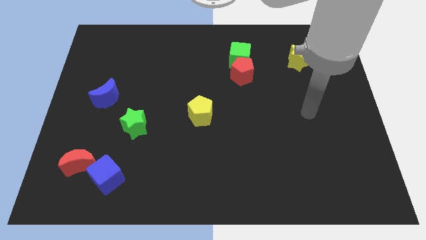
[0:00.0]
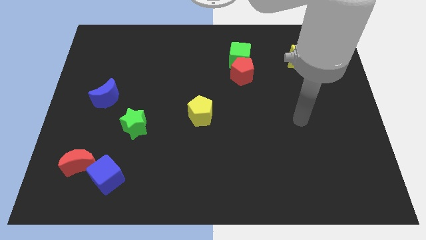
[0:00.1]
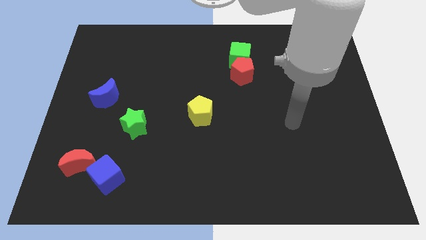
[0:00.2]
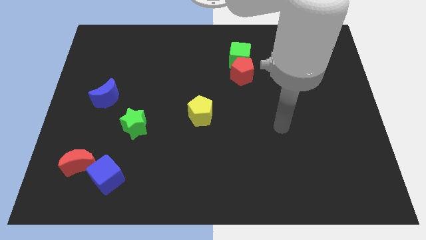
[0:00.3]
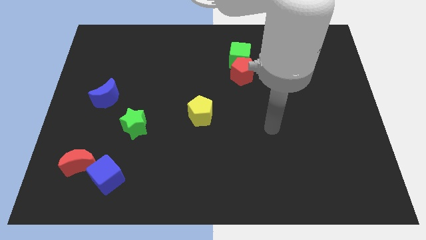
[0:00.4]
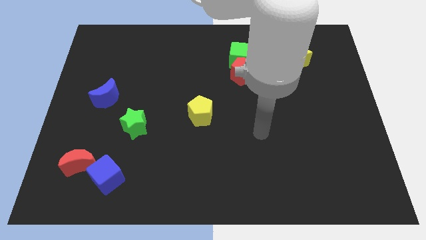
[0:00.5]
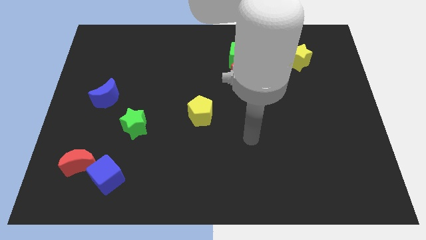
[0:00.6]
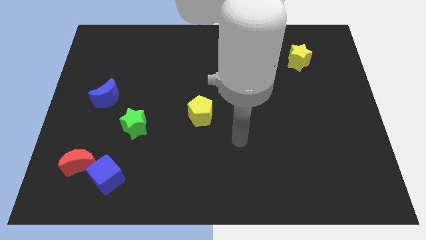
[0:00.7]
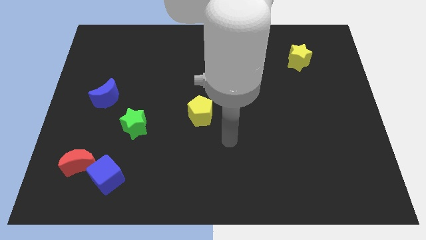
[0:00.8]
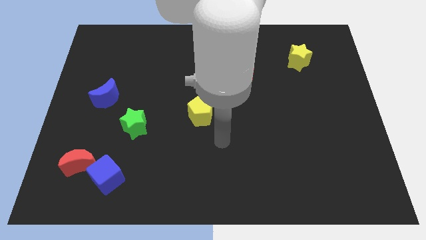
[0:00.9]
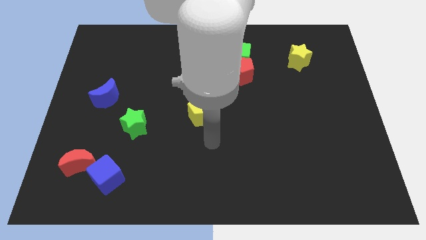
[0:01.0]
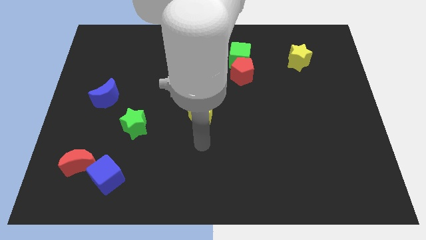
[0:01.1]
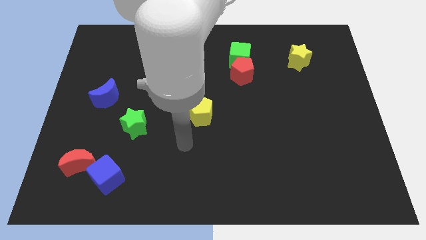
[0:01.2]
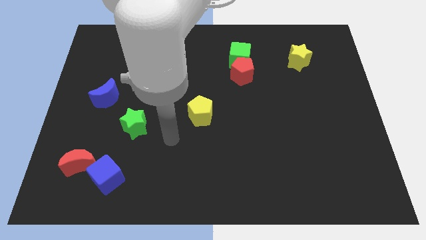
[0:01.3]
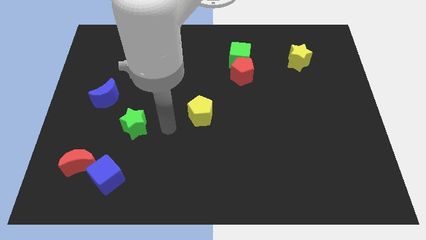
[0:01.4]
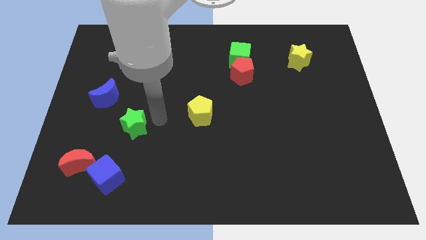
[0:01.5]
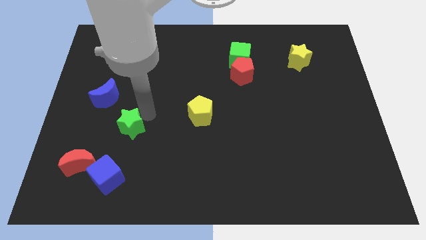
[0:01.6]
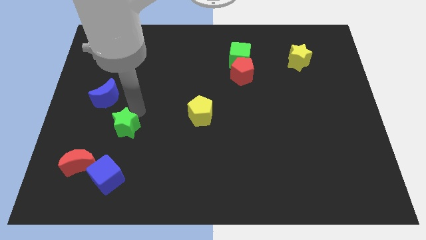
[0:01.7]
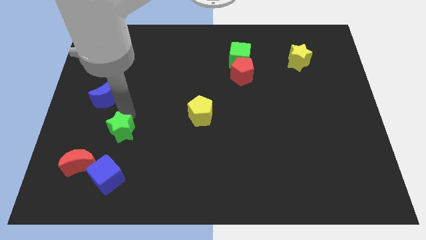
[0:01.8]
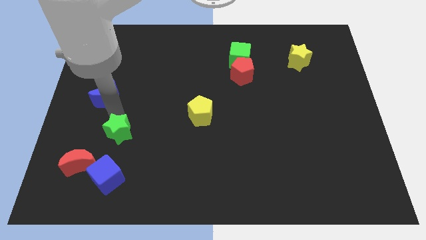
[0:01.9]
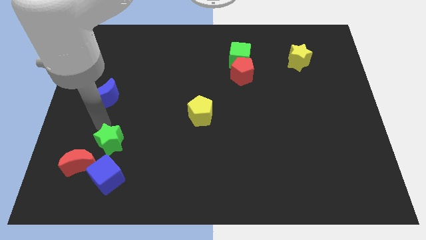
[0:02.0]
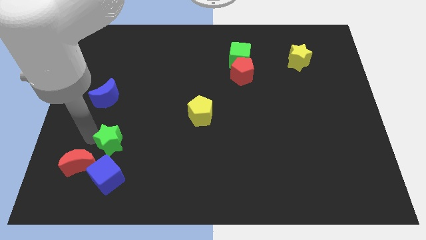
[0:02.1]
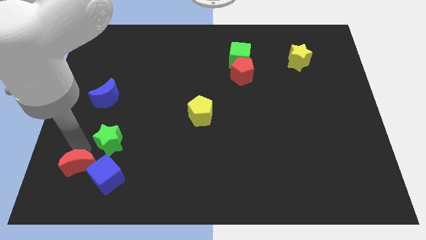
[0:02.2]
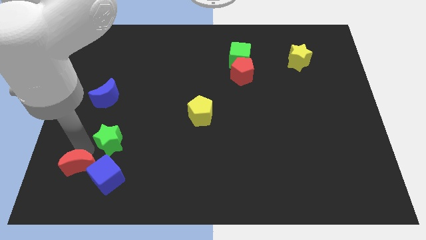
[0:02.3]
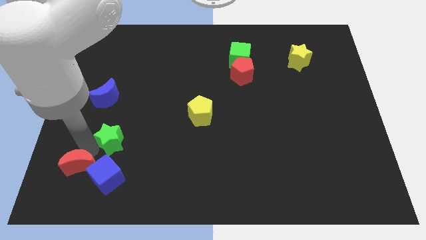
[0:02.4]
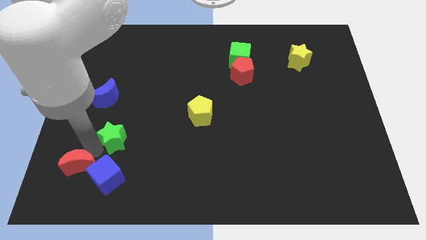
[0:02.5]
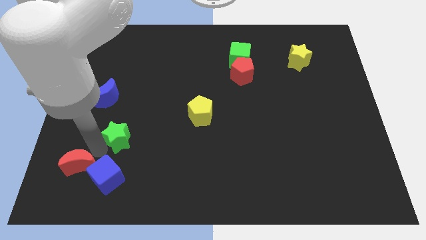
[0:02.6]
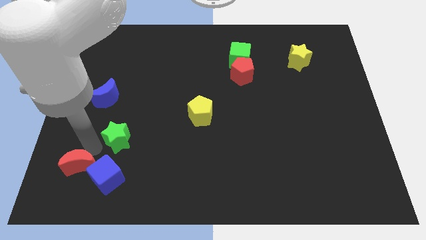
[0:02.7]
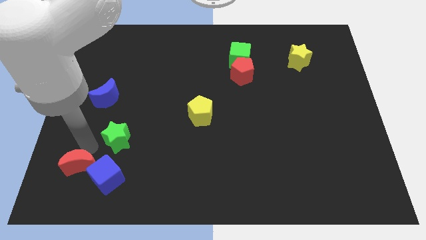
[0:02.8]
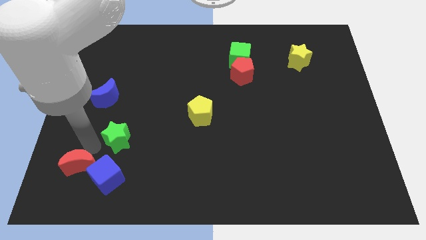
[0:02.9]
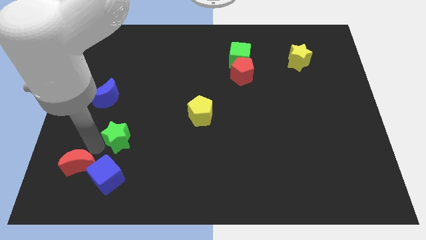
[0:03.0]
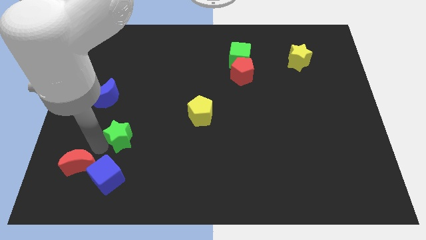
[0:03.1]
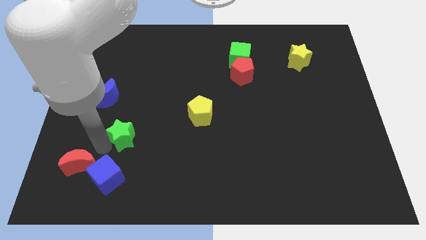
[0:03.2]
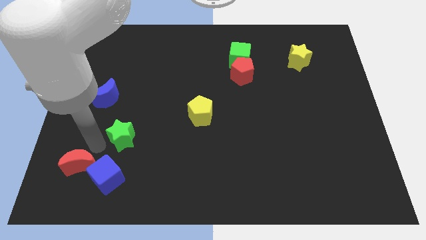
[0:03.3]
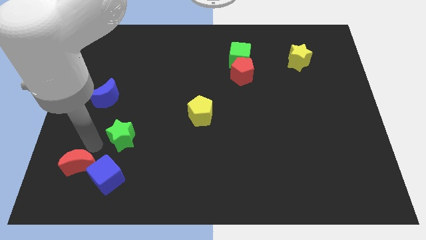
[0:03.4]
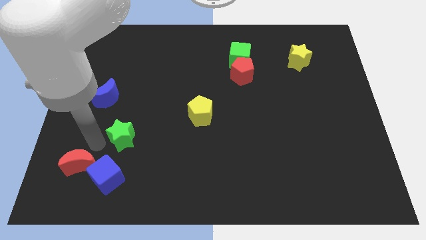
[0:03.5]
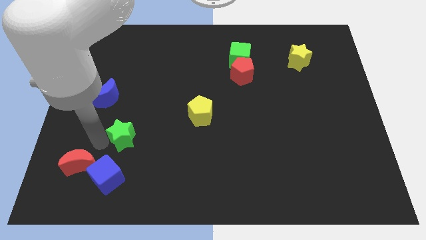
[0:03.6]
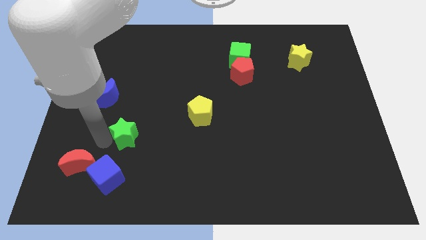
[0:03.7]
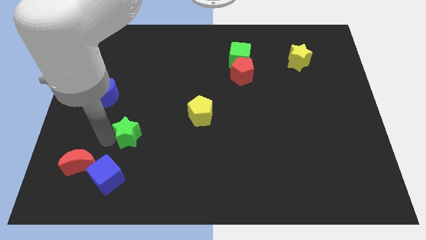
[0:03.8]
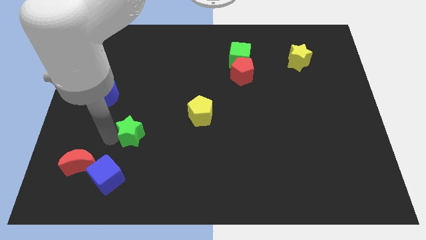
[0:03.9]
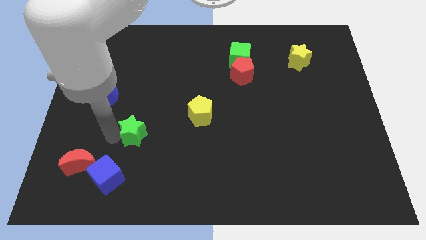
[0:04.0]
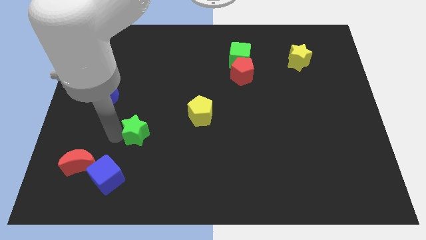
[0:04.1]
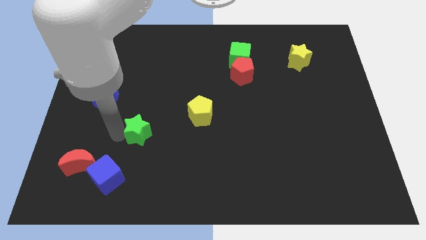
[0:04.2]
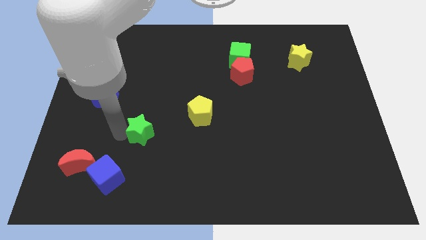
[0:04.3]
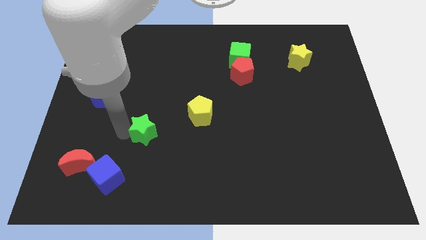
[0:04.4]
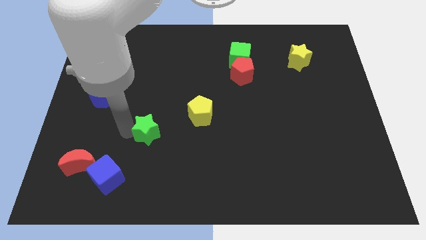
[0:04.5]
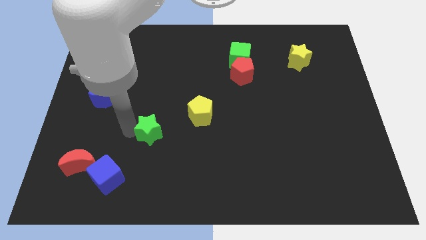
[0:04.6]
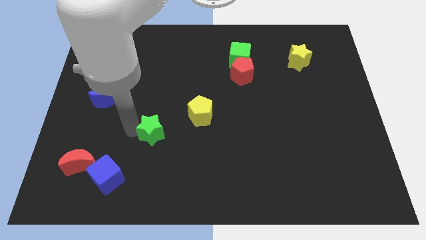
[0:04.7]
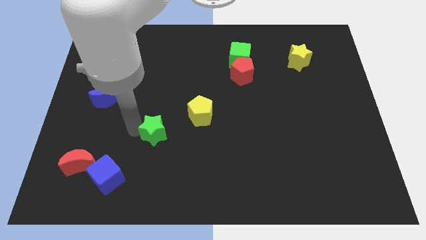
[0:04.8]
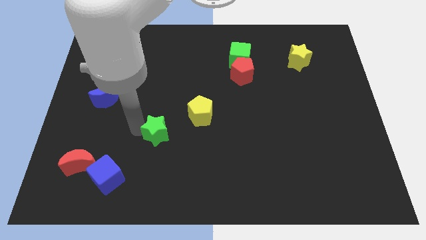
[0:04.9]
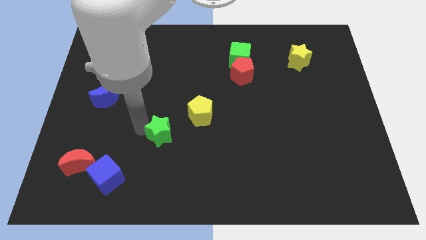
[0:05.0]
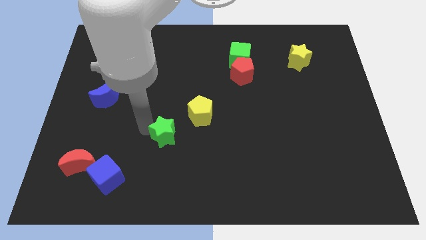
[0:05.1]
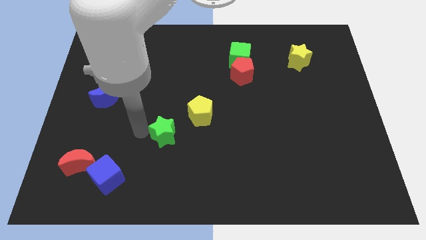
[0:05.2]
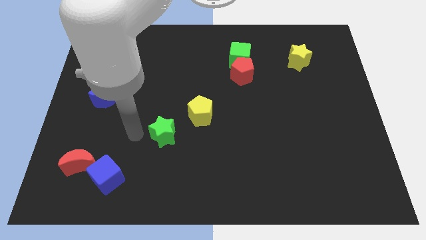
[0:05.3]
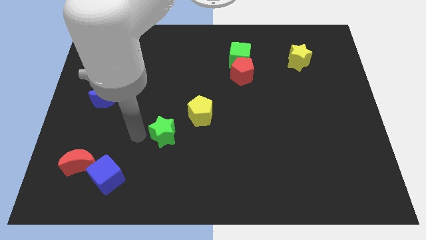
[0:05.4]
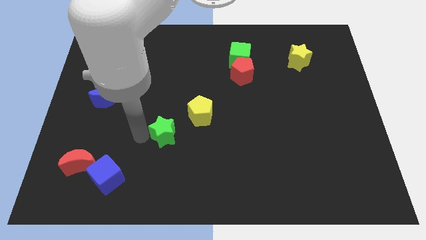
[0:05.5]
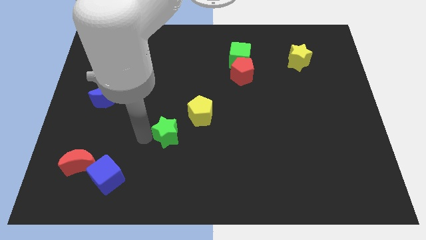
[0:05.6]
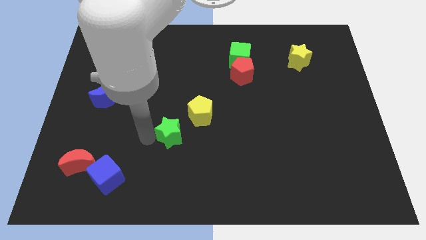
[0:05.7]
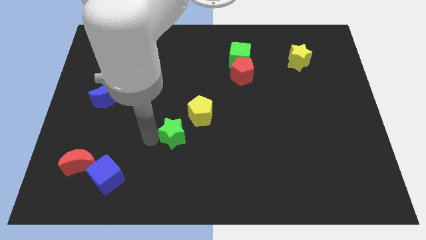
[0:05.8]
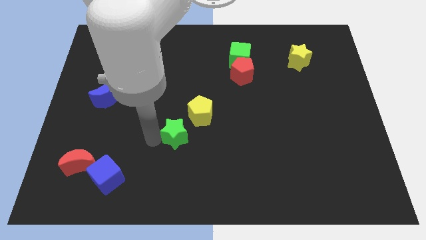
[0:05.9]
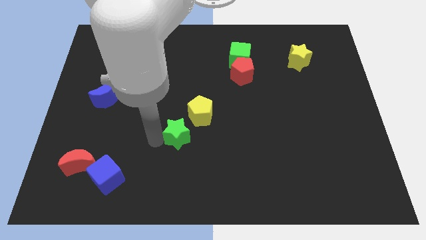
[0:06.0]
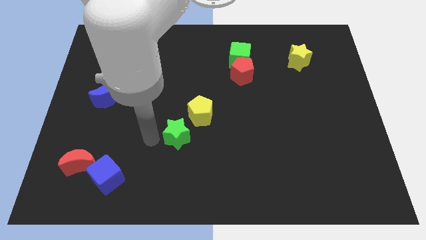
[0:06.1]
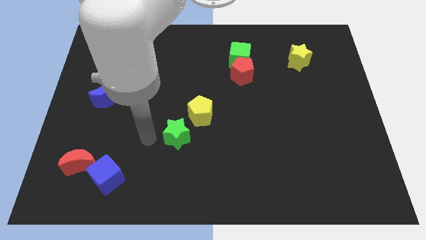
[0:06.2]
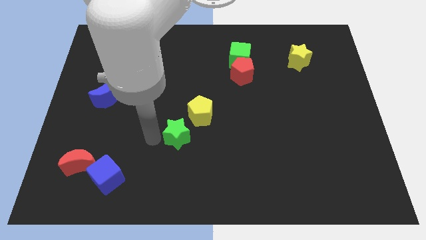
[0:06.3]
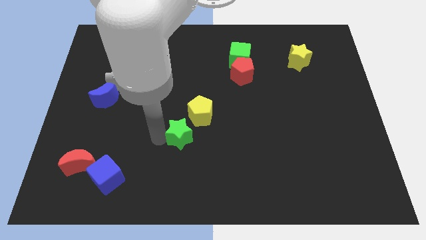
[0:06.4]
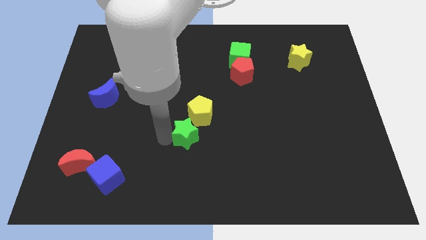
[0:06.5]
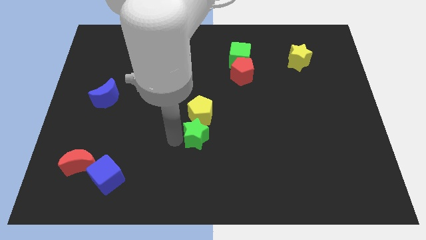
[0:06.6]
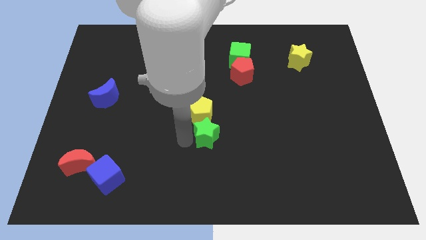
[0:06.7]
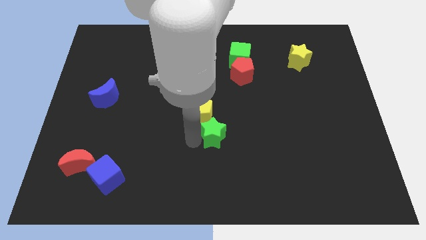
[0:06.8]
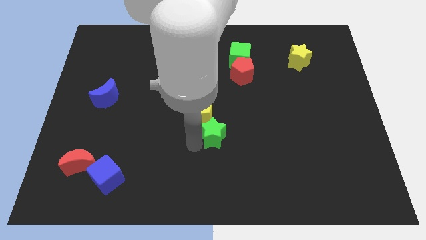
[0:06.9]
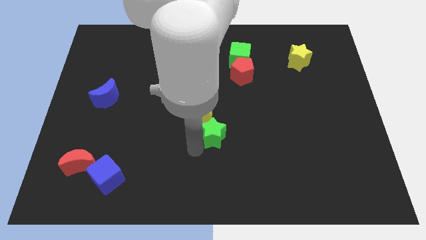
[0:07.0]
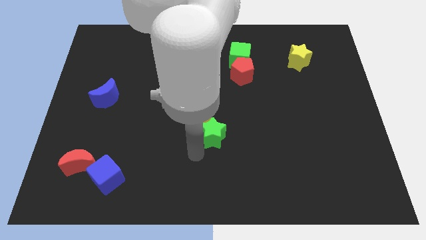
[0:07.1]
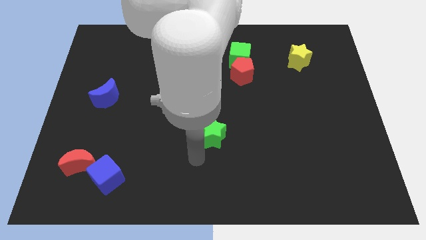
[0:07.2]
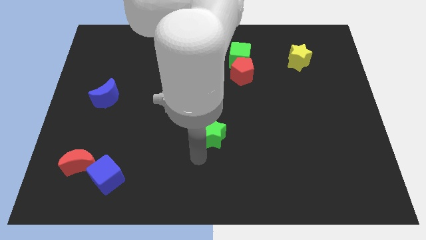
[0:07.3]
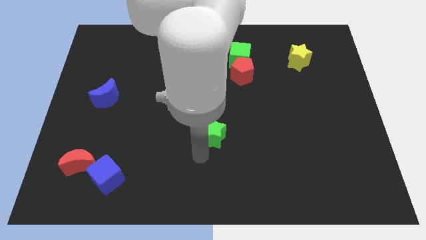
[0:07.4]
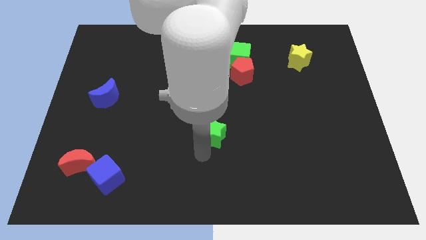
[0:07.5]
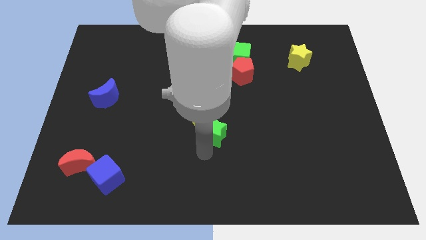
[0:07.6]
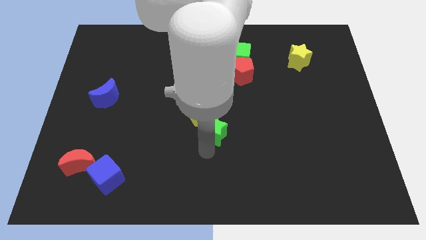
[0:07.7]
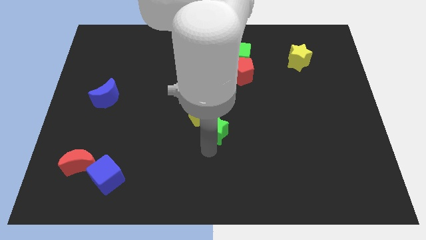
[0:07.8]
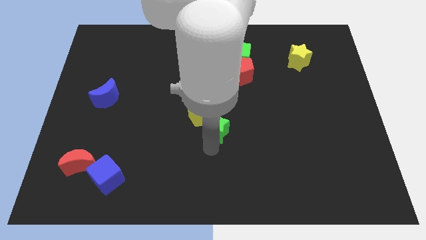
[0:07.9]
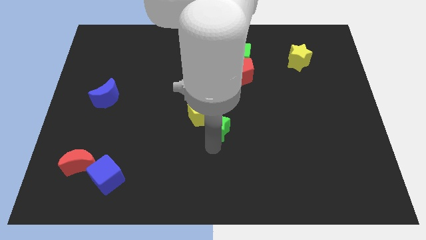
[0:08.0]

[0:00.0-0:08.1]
move the green star right of the yellow pentagon
